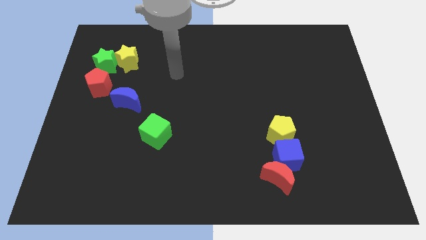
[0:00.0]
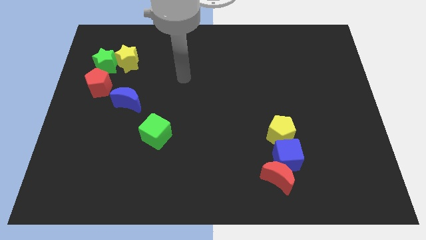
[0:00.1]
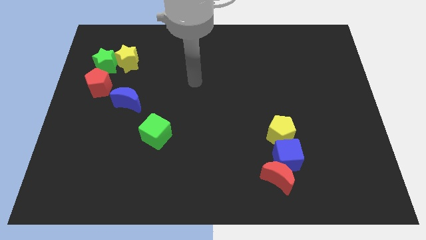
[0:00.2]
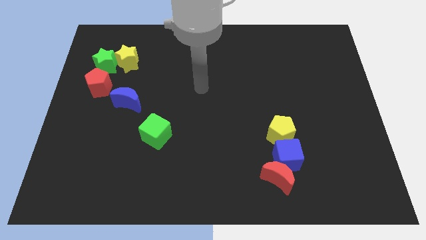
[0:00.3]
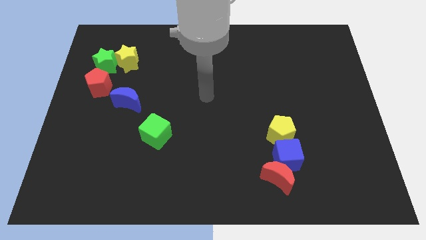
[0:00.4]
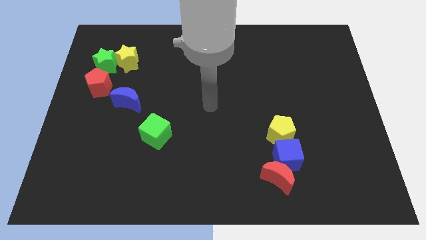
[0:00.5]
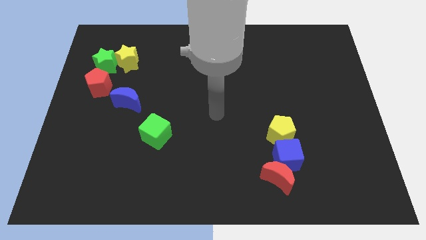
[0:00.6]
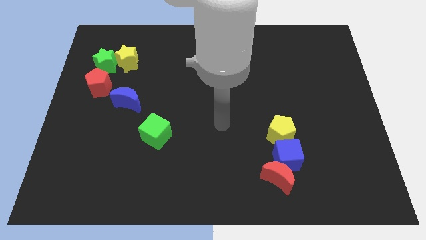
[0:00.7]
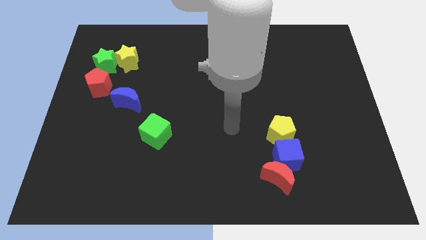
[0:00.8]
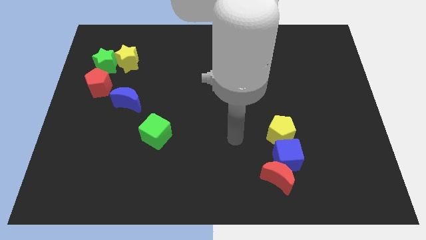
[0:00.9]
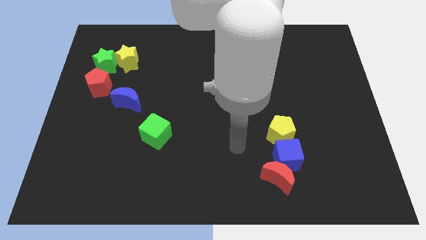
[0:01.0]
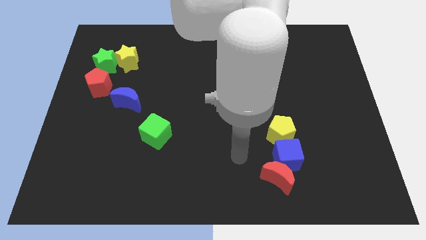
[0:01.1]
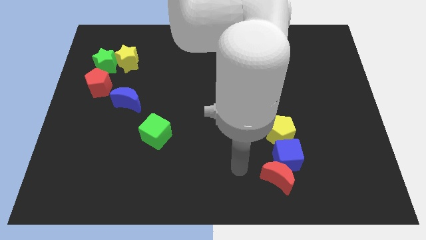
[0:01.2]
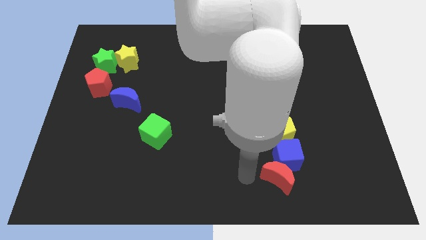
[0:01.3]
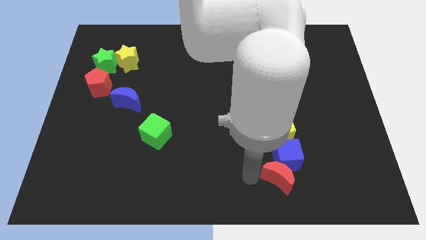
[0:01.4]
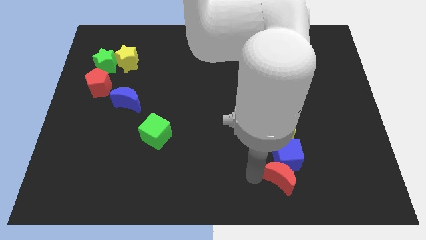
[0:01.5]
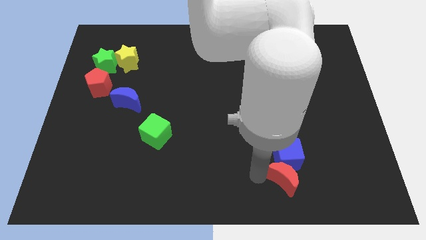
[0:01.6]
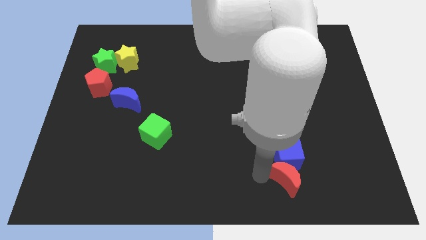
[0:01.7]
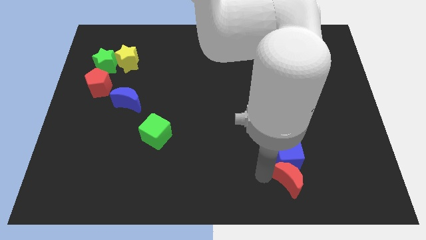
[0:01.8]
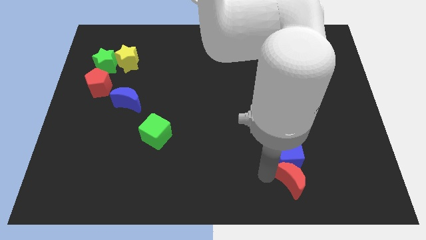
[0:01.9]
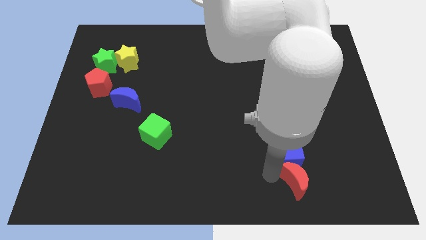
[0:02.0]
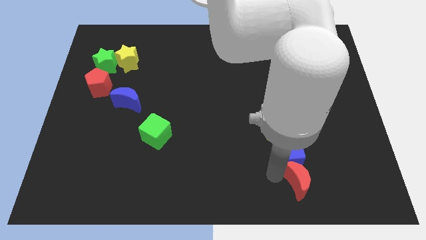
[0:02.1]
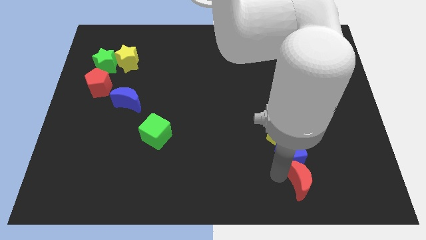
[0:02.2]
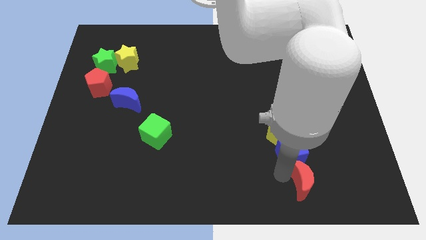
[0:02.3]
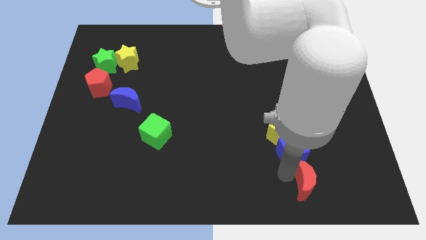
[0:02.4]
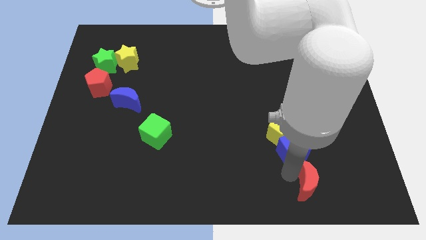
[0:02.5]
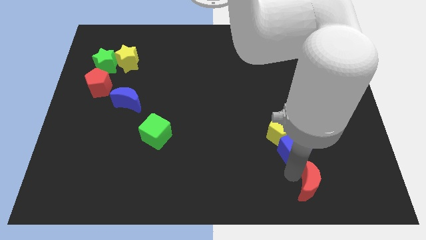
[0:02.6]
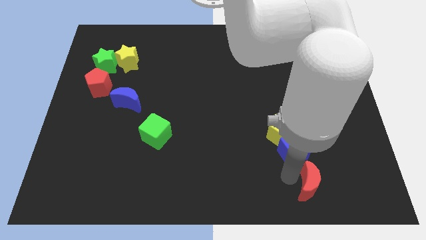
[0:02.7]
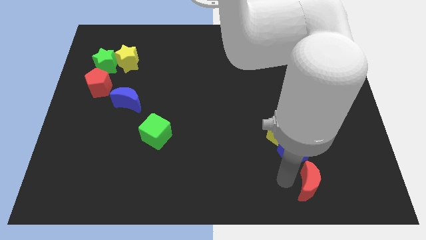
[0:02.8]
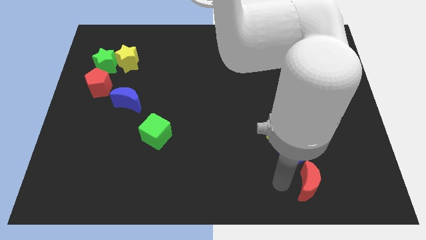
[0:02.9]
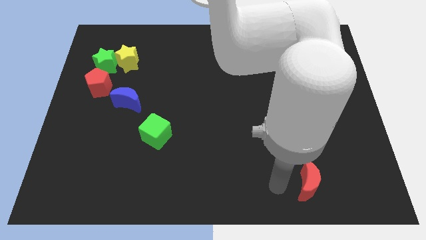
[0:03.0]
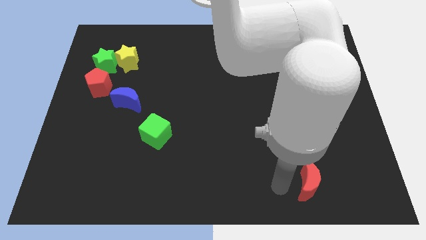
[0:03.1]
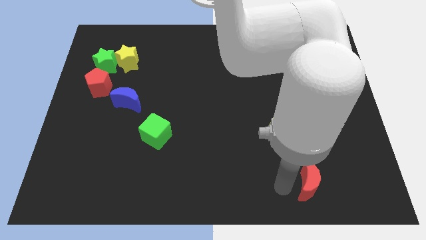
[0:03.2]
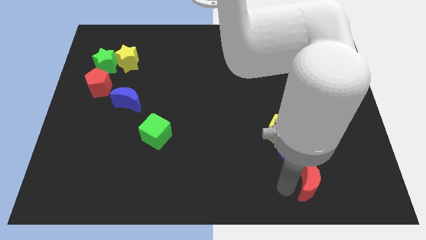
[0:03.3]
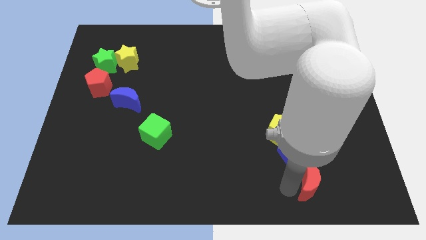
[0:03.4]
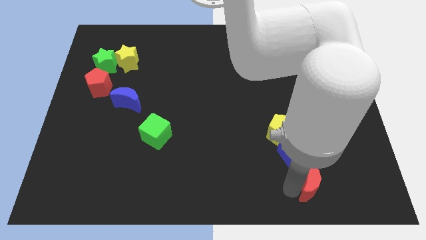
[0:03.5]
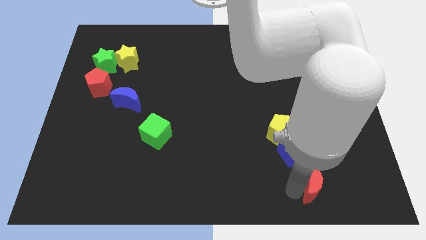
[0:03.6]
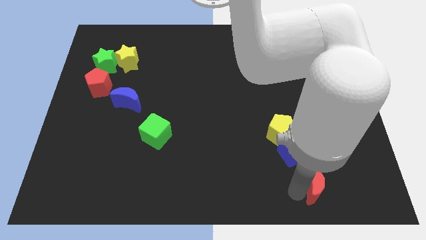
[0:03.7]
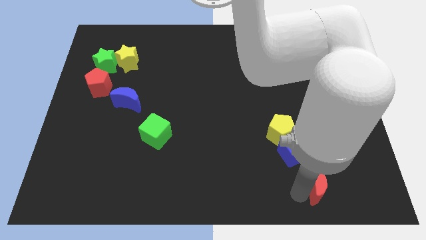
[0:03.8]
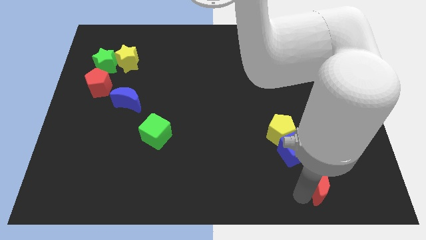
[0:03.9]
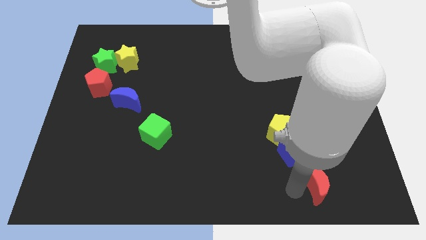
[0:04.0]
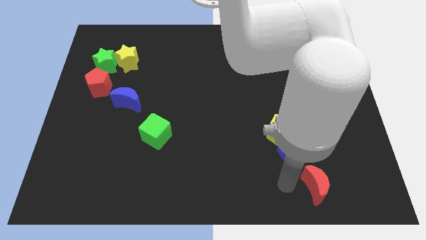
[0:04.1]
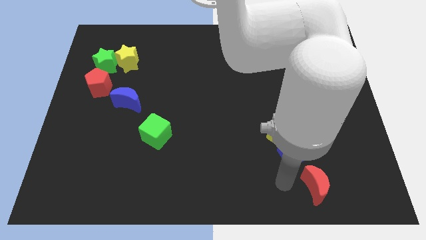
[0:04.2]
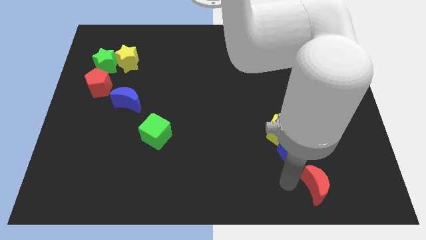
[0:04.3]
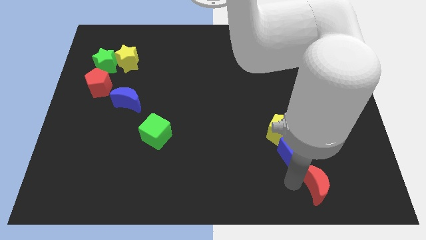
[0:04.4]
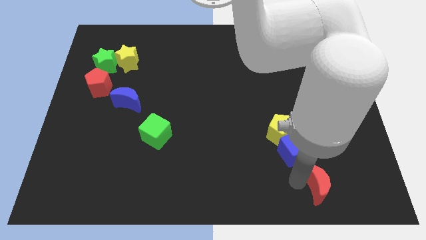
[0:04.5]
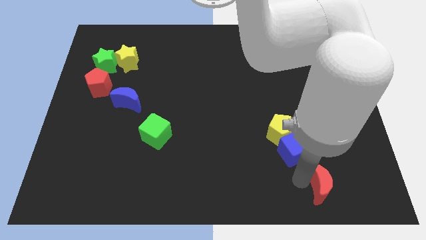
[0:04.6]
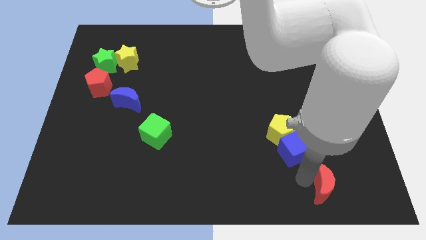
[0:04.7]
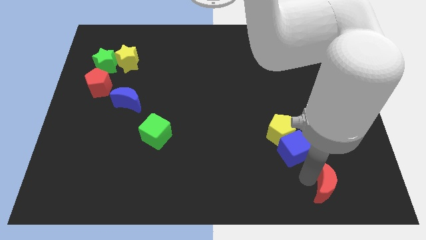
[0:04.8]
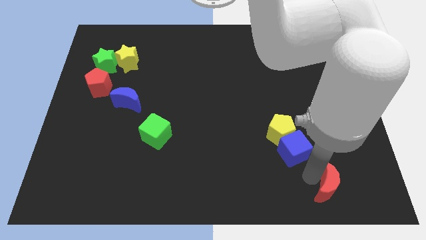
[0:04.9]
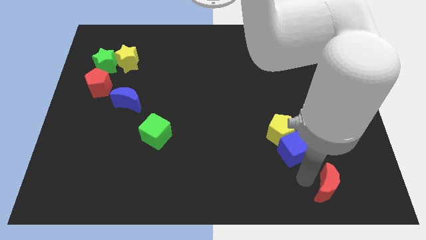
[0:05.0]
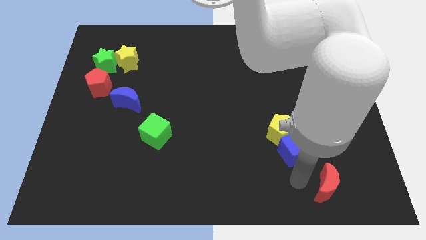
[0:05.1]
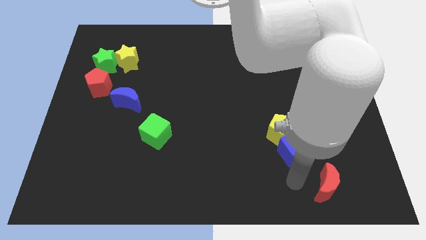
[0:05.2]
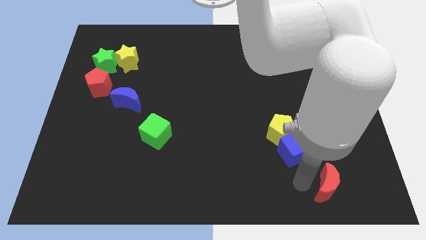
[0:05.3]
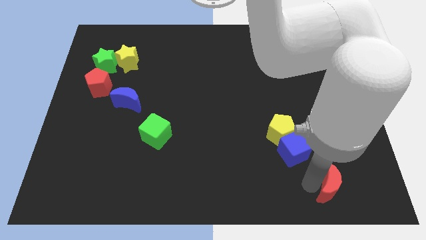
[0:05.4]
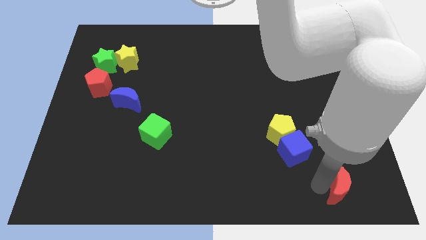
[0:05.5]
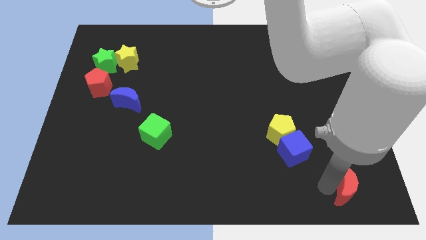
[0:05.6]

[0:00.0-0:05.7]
push the red moon to the bottom right of the board
